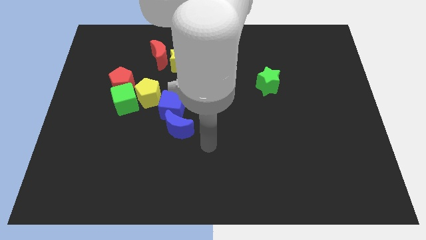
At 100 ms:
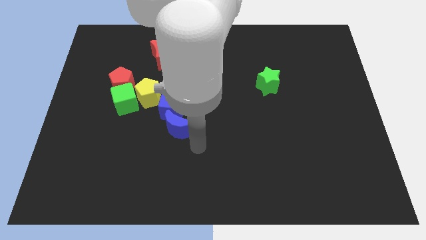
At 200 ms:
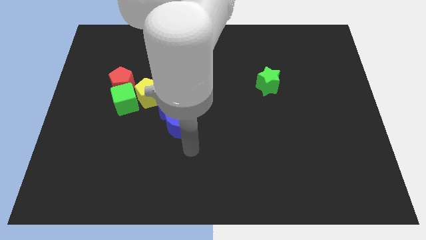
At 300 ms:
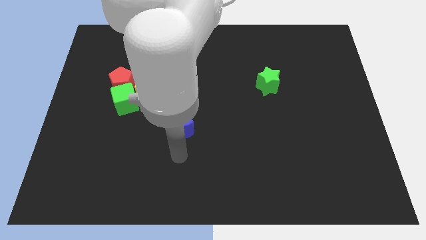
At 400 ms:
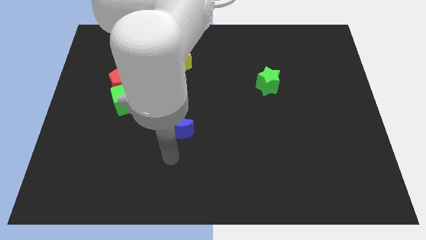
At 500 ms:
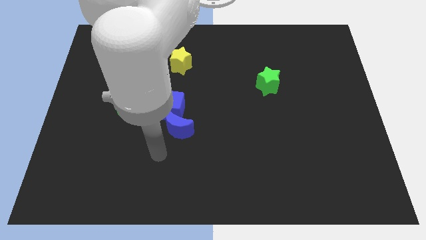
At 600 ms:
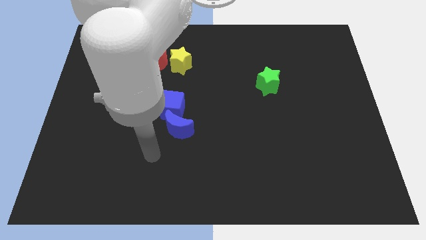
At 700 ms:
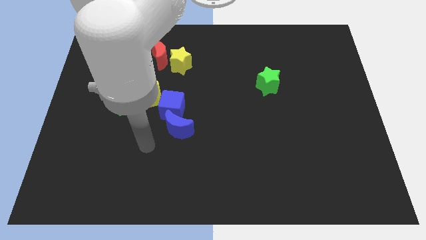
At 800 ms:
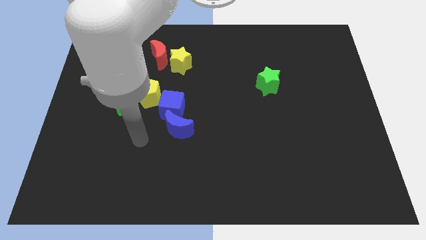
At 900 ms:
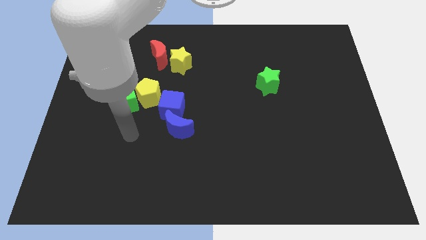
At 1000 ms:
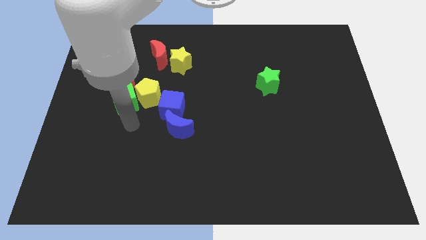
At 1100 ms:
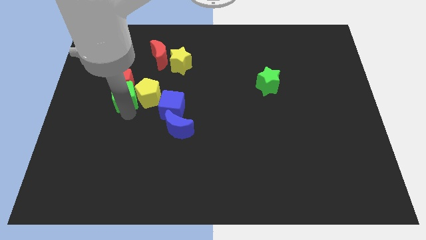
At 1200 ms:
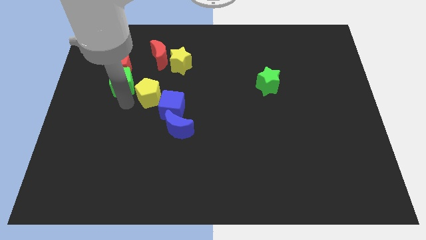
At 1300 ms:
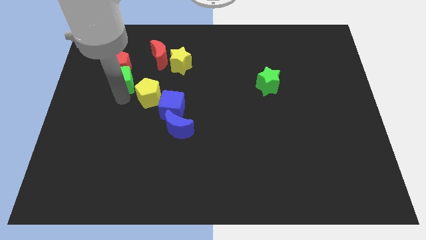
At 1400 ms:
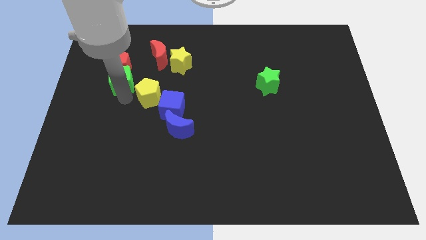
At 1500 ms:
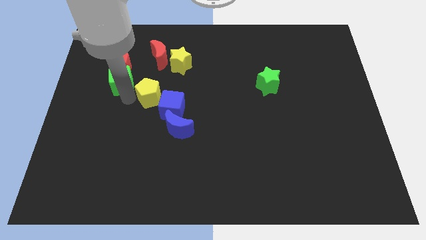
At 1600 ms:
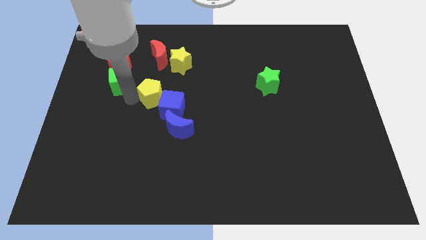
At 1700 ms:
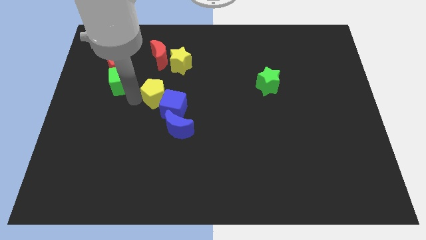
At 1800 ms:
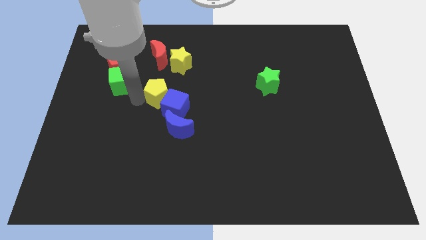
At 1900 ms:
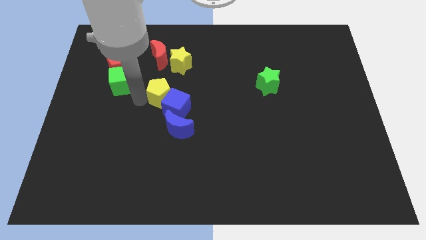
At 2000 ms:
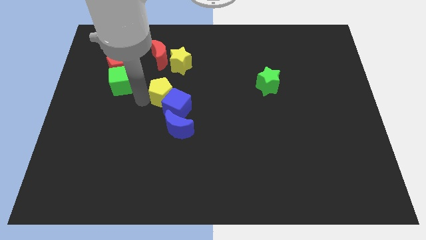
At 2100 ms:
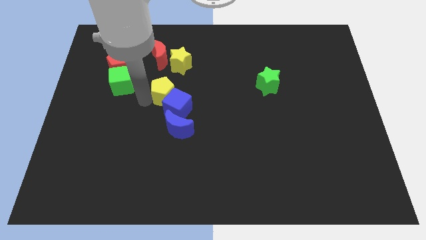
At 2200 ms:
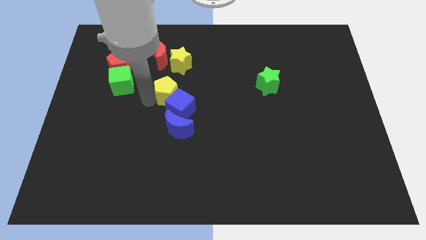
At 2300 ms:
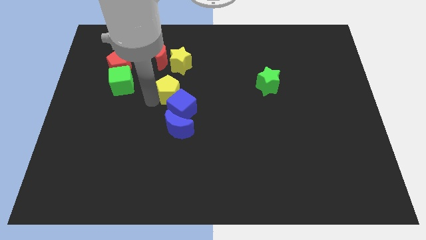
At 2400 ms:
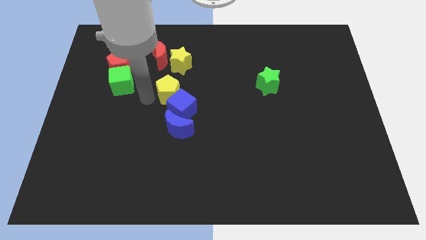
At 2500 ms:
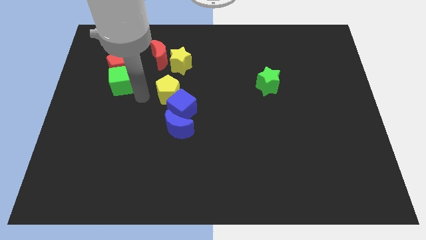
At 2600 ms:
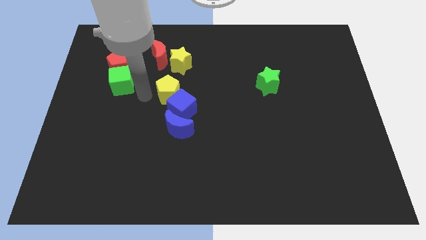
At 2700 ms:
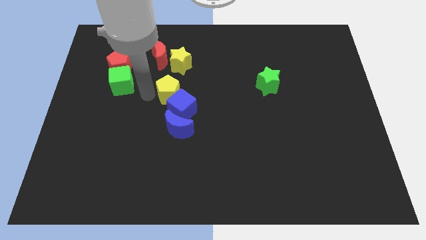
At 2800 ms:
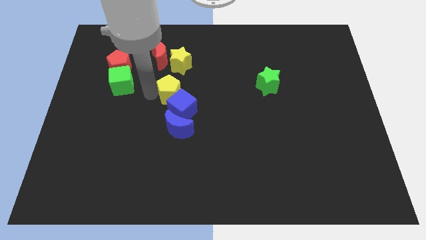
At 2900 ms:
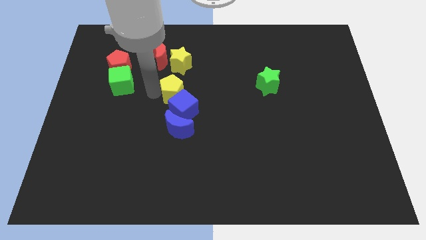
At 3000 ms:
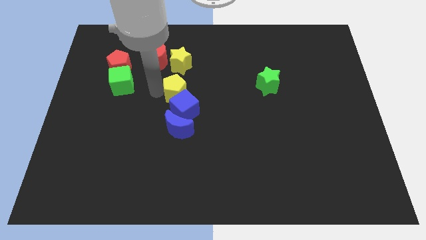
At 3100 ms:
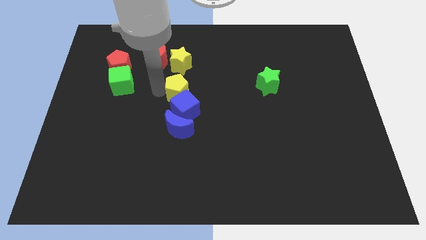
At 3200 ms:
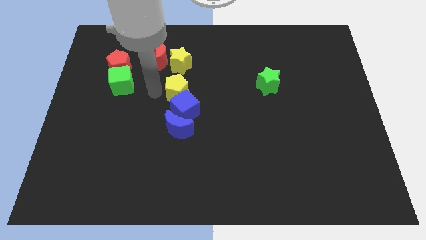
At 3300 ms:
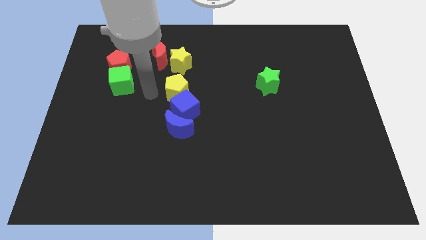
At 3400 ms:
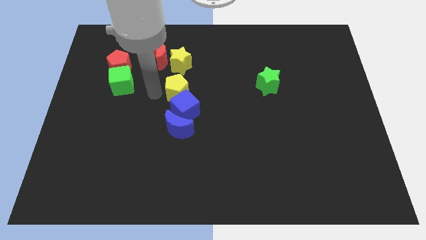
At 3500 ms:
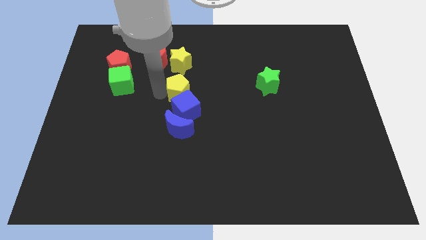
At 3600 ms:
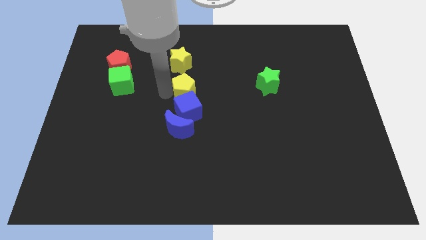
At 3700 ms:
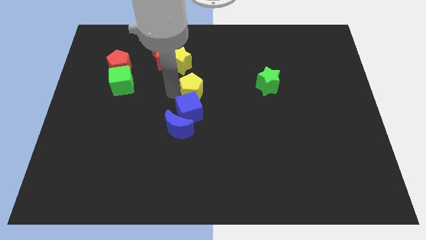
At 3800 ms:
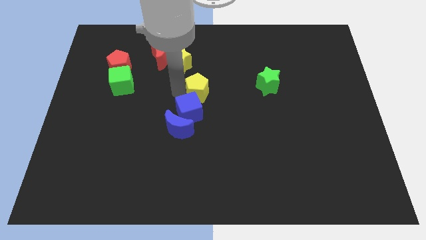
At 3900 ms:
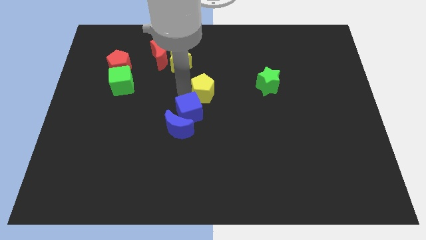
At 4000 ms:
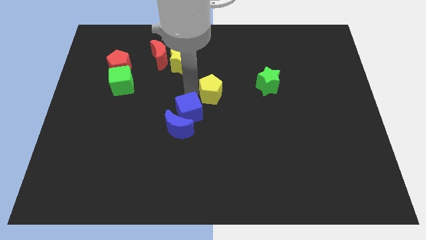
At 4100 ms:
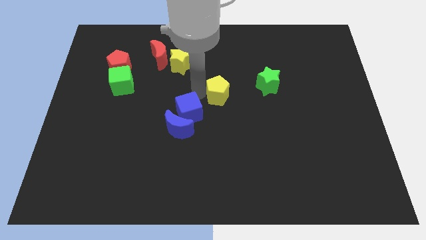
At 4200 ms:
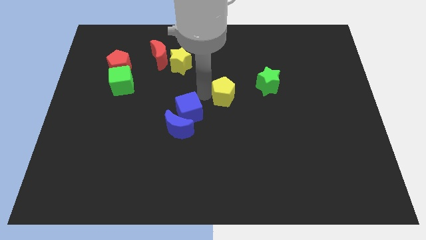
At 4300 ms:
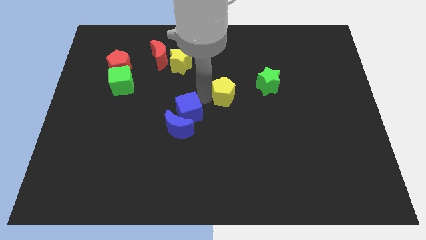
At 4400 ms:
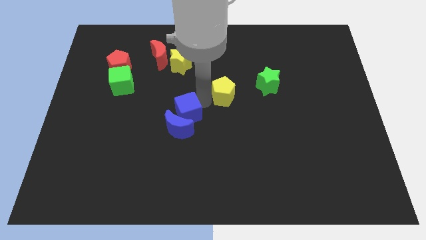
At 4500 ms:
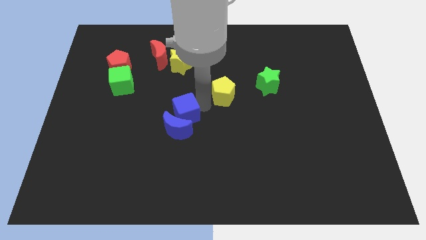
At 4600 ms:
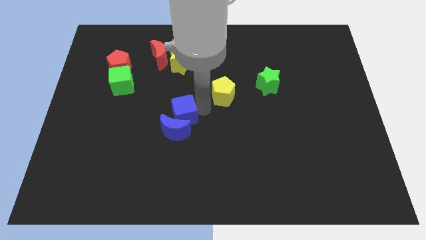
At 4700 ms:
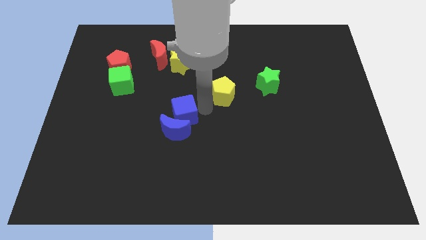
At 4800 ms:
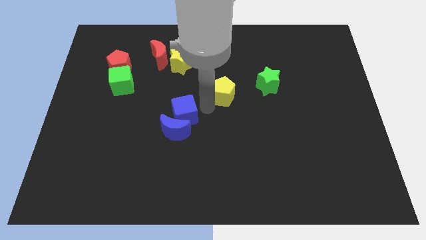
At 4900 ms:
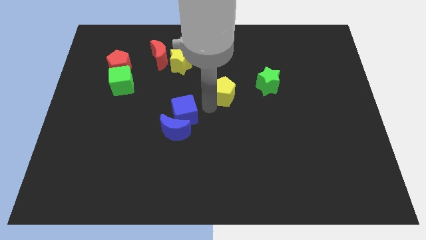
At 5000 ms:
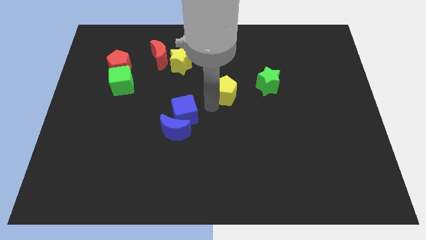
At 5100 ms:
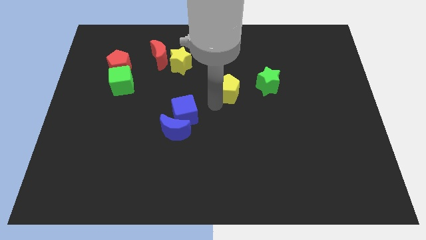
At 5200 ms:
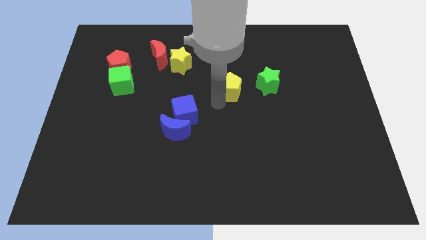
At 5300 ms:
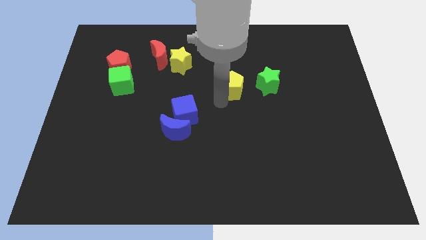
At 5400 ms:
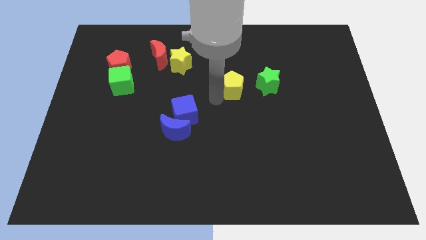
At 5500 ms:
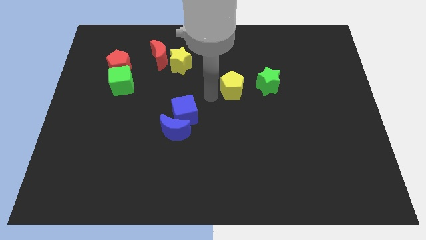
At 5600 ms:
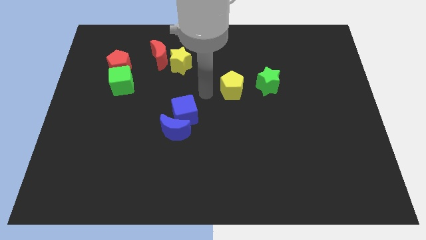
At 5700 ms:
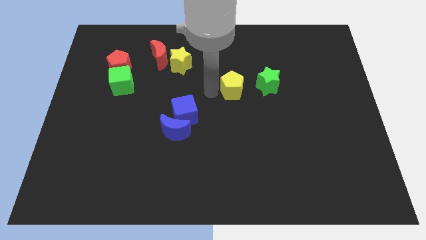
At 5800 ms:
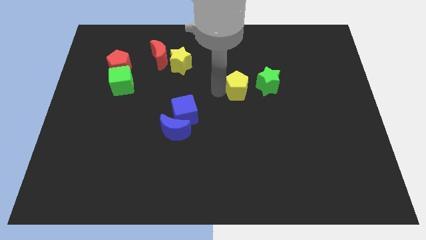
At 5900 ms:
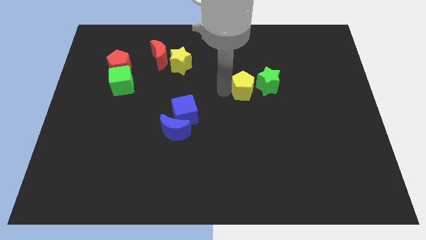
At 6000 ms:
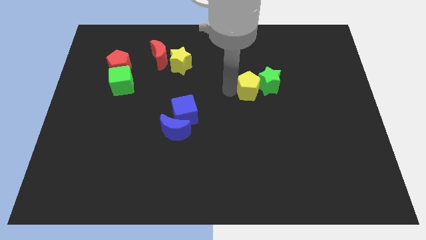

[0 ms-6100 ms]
put the yellow pentagon to the green star

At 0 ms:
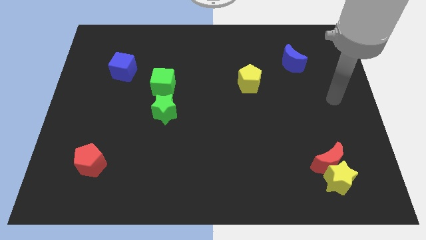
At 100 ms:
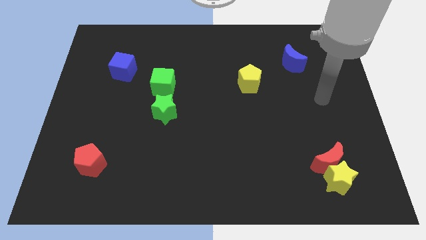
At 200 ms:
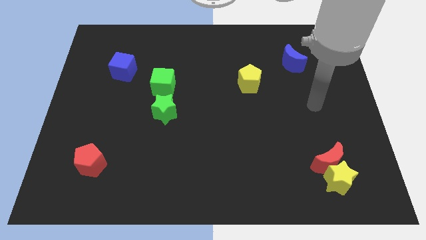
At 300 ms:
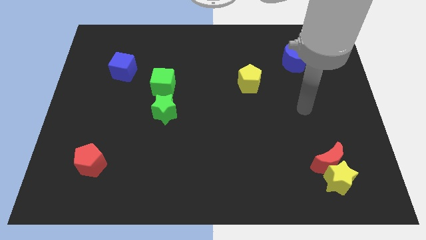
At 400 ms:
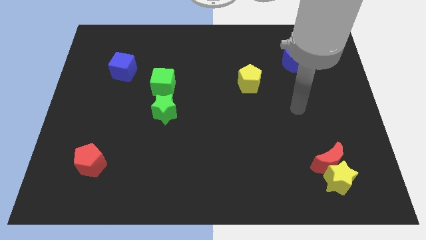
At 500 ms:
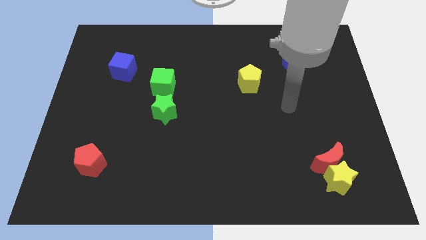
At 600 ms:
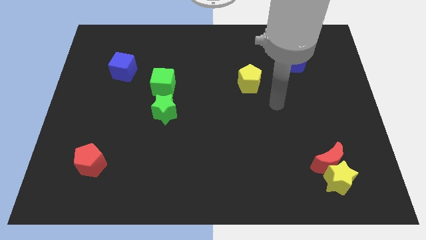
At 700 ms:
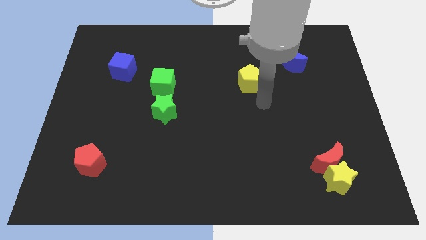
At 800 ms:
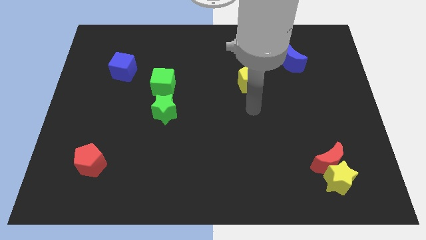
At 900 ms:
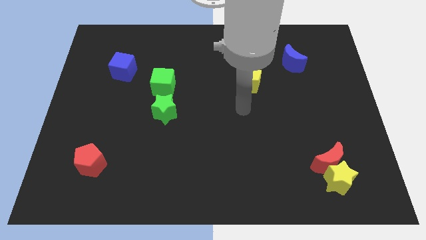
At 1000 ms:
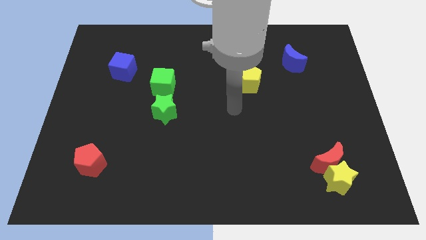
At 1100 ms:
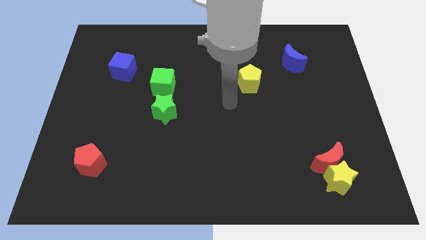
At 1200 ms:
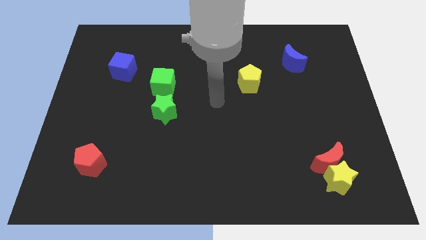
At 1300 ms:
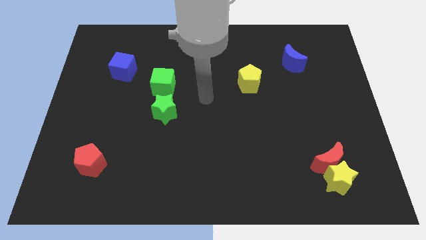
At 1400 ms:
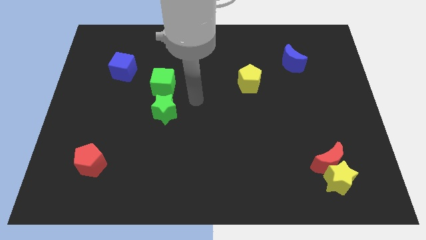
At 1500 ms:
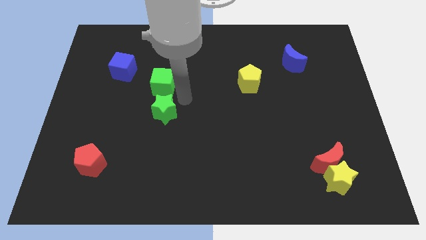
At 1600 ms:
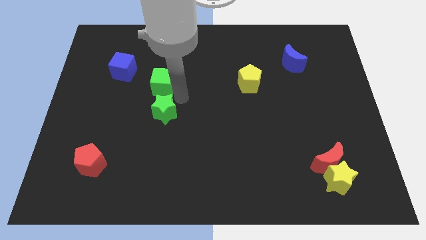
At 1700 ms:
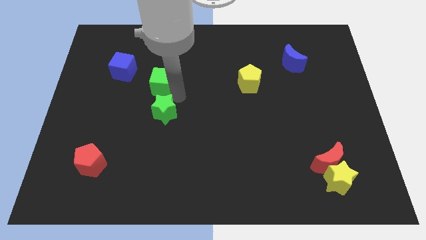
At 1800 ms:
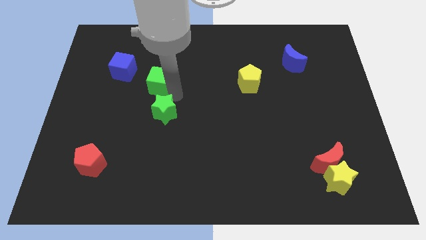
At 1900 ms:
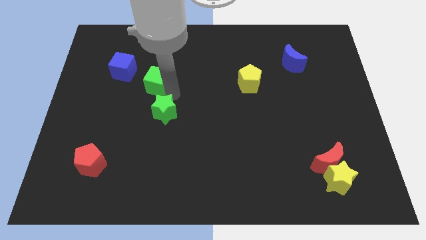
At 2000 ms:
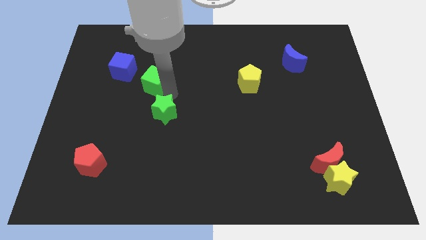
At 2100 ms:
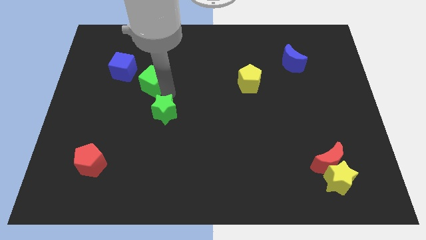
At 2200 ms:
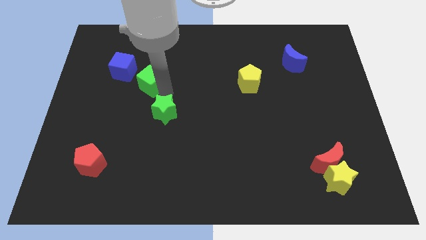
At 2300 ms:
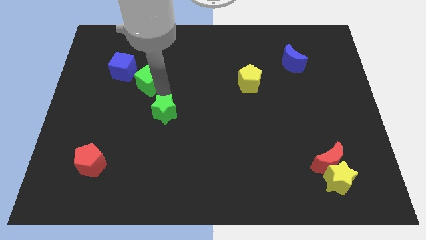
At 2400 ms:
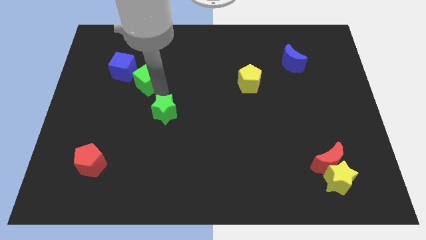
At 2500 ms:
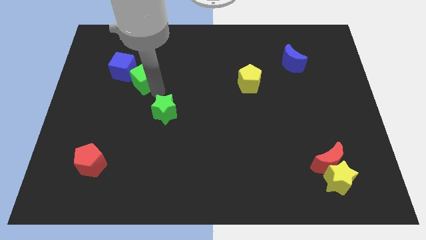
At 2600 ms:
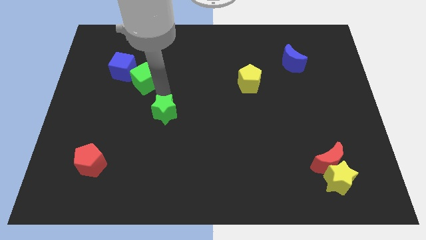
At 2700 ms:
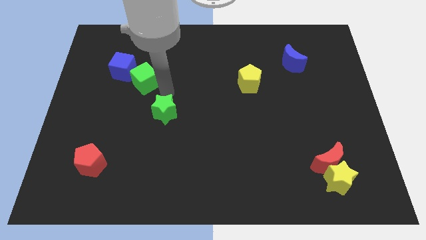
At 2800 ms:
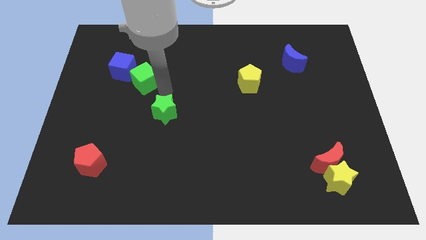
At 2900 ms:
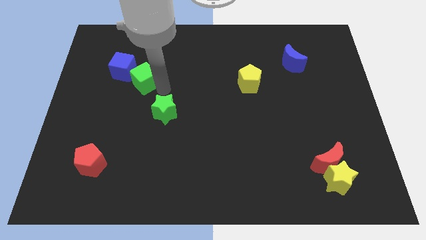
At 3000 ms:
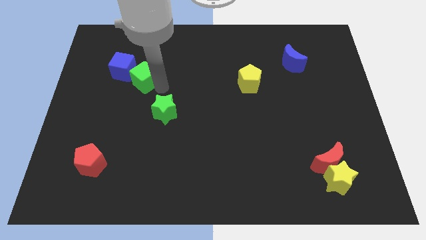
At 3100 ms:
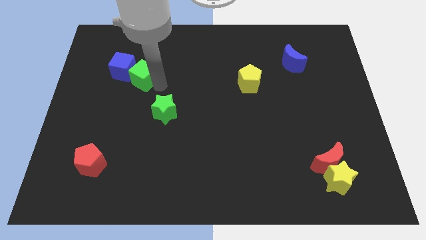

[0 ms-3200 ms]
put the green cube towards the blue cube
